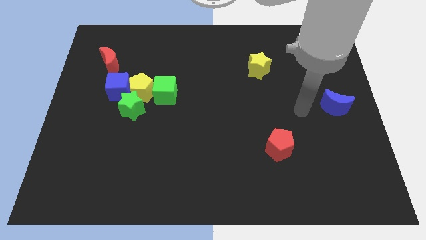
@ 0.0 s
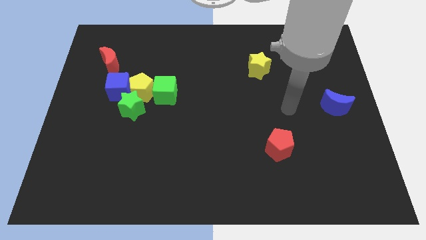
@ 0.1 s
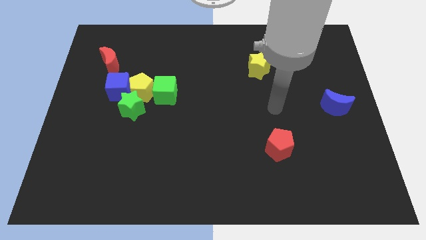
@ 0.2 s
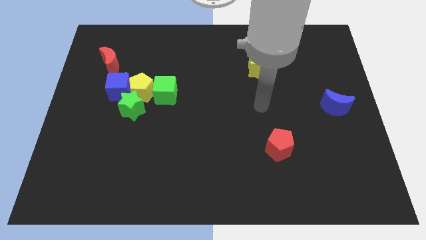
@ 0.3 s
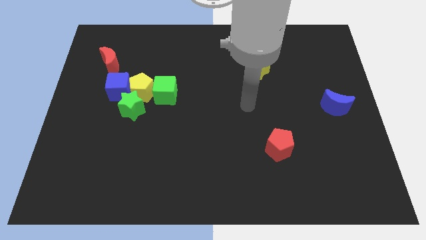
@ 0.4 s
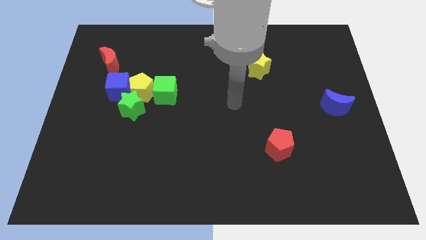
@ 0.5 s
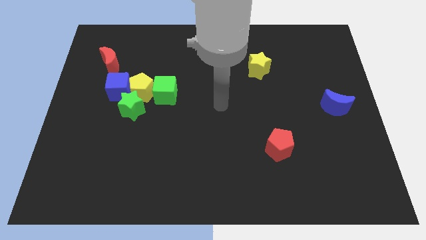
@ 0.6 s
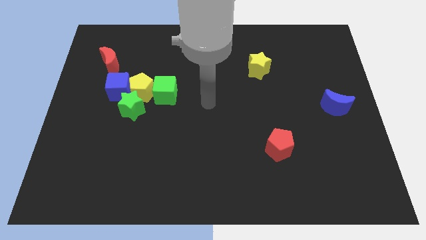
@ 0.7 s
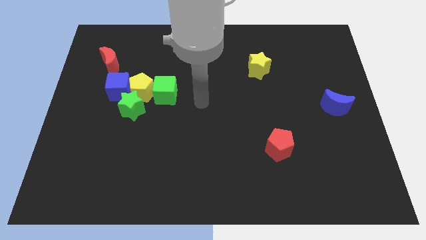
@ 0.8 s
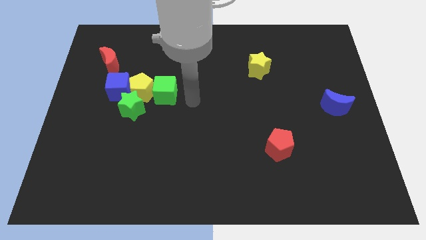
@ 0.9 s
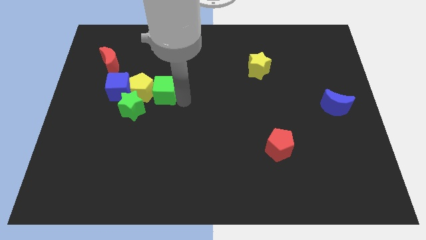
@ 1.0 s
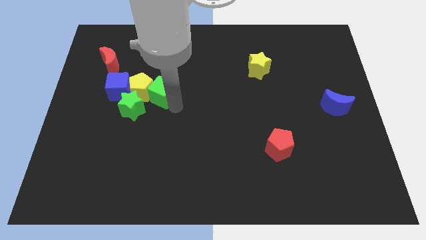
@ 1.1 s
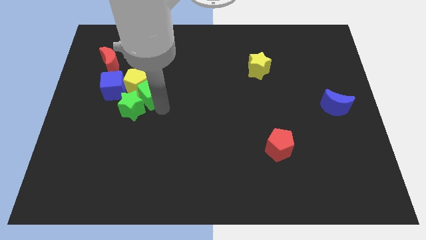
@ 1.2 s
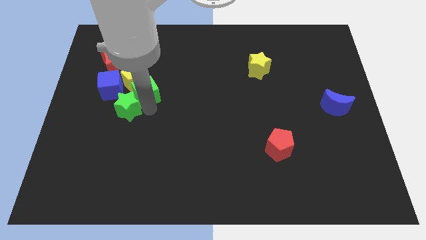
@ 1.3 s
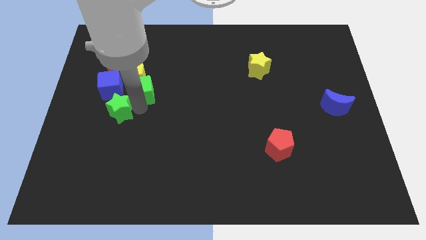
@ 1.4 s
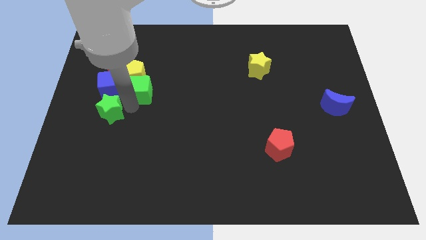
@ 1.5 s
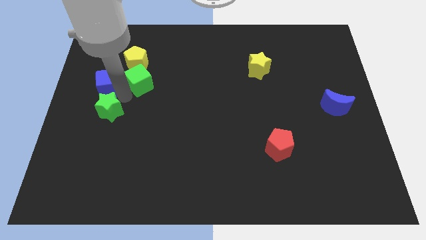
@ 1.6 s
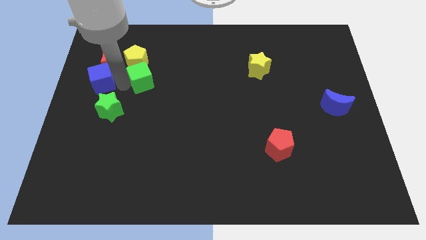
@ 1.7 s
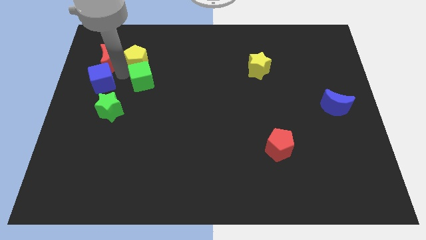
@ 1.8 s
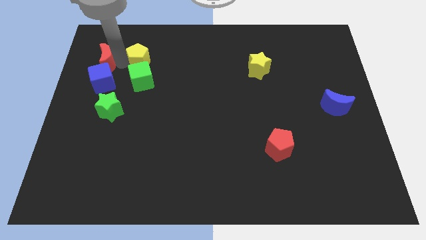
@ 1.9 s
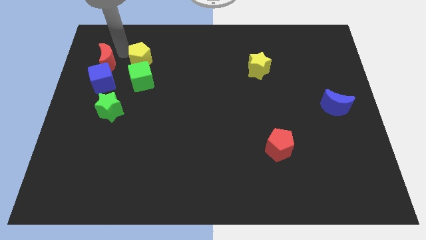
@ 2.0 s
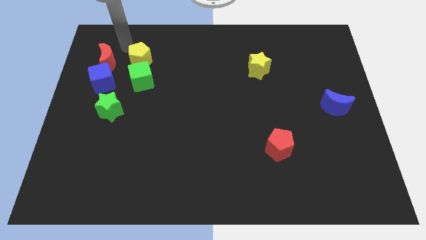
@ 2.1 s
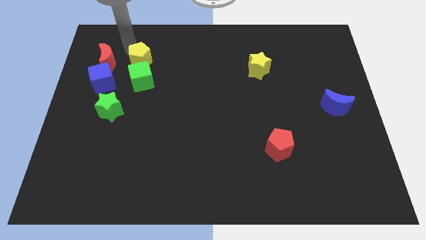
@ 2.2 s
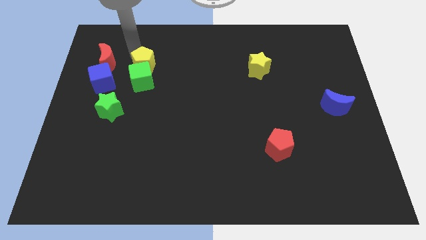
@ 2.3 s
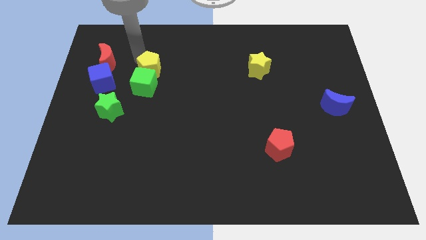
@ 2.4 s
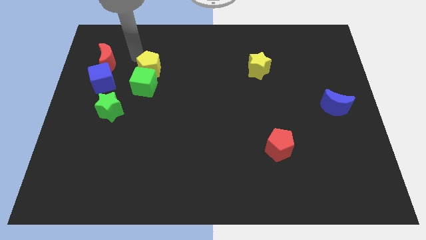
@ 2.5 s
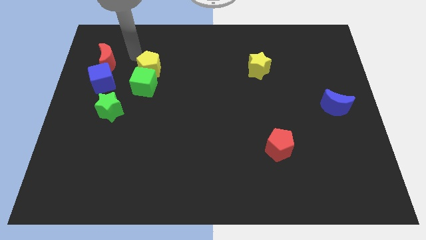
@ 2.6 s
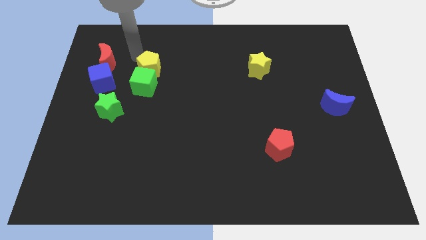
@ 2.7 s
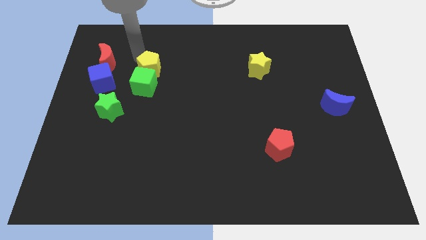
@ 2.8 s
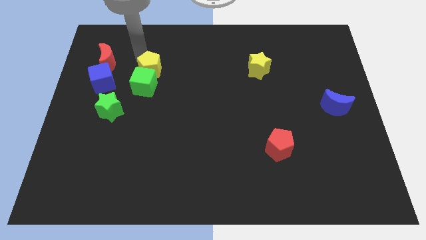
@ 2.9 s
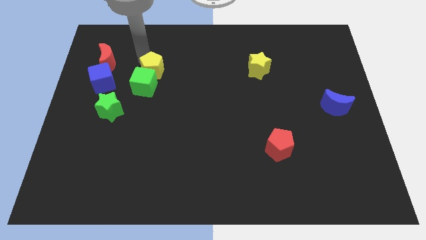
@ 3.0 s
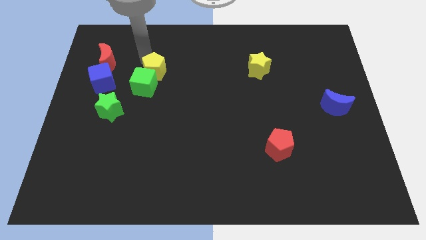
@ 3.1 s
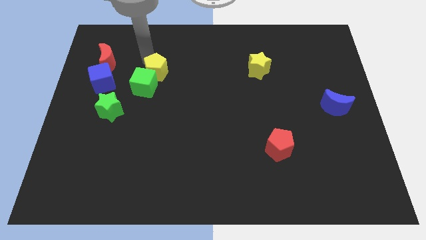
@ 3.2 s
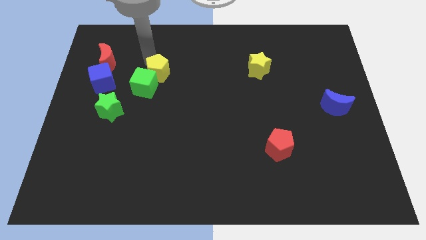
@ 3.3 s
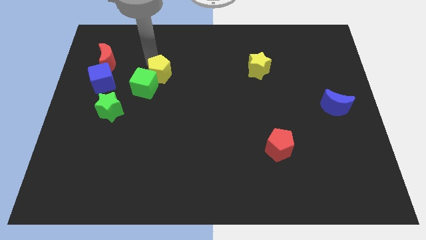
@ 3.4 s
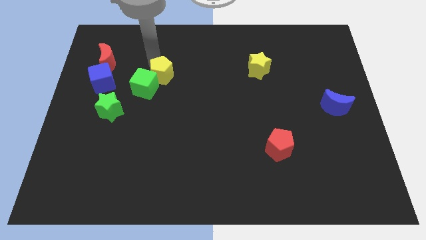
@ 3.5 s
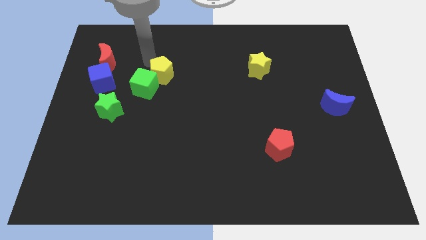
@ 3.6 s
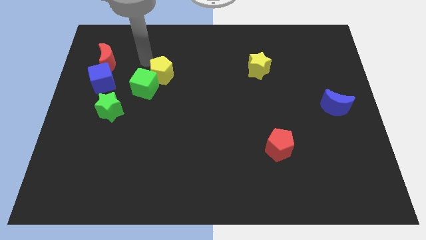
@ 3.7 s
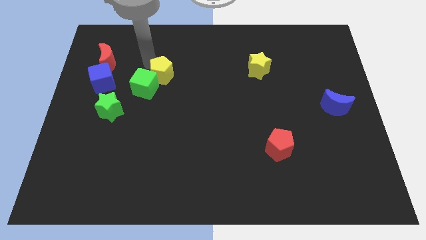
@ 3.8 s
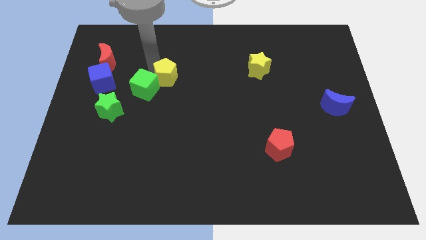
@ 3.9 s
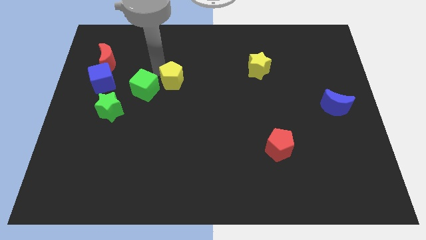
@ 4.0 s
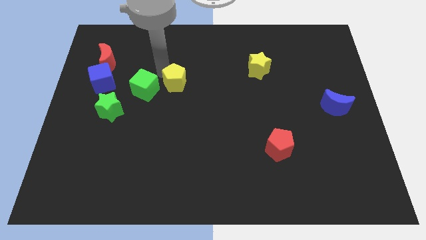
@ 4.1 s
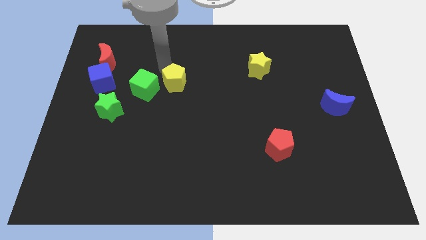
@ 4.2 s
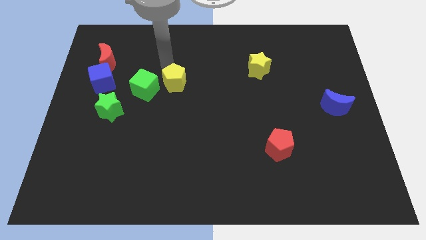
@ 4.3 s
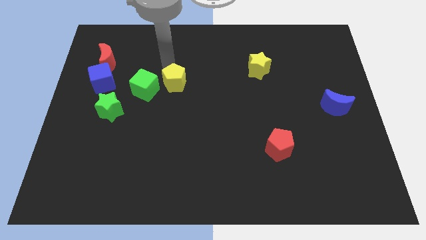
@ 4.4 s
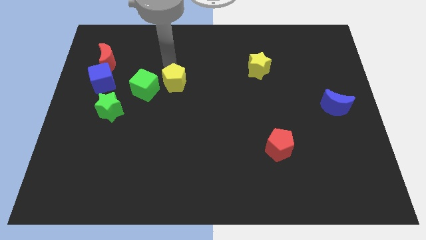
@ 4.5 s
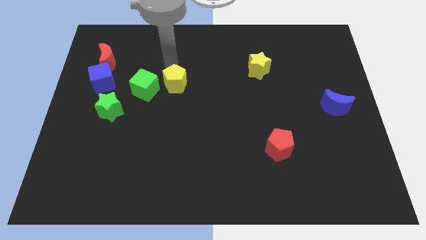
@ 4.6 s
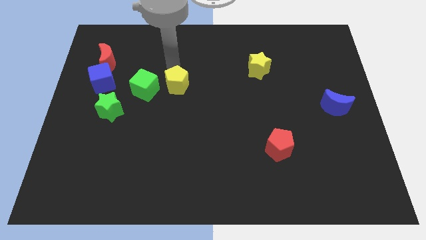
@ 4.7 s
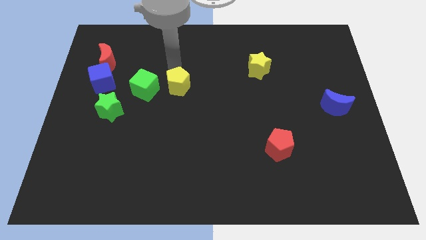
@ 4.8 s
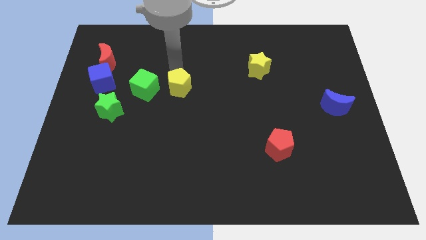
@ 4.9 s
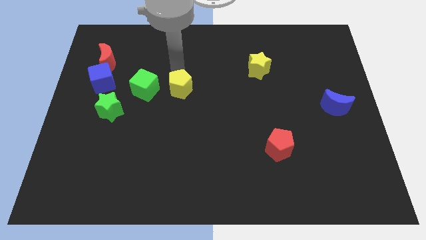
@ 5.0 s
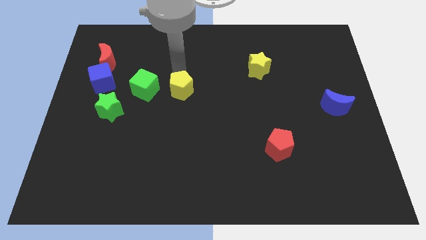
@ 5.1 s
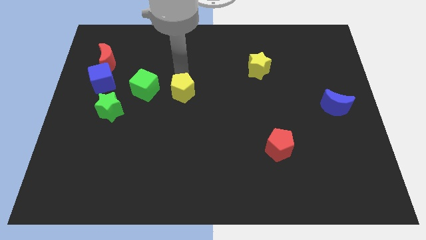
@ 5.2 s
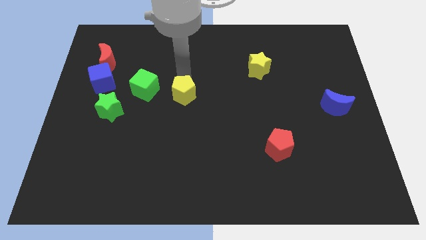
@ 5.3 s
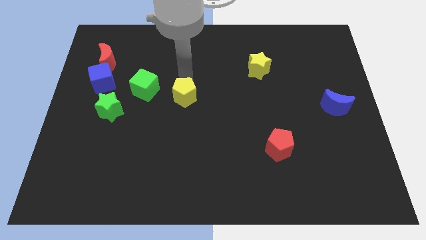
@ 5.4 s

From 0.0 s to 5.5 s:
push the yellow pentagon down and to the right slightly

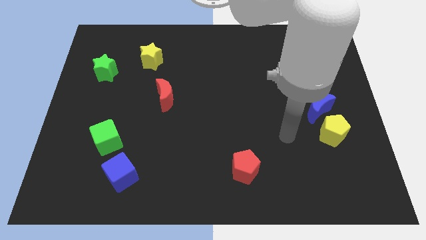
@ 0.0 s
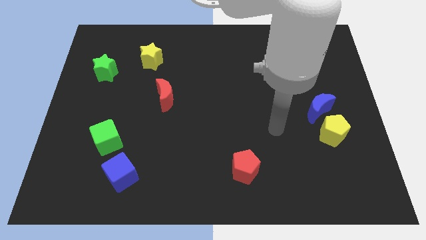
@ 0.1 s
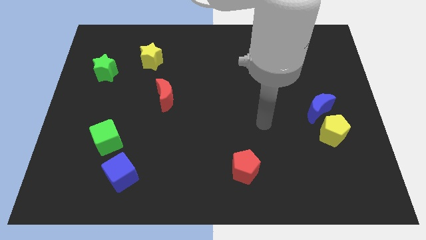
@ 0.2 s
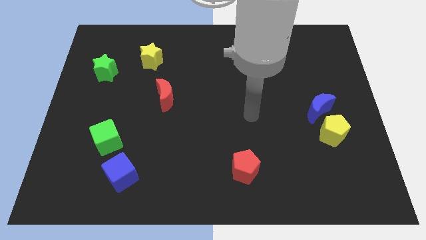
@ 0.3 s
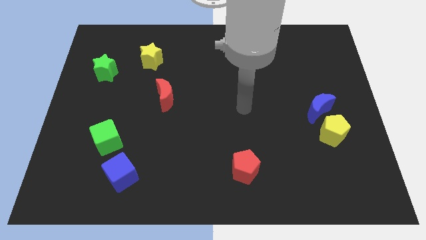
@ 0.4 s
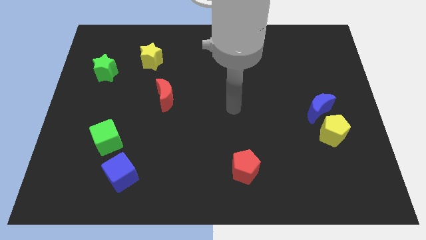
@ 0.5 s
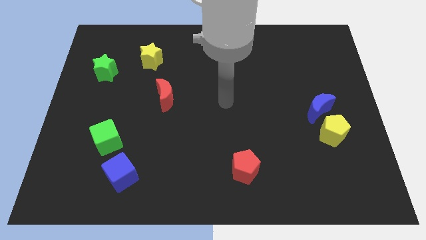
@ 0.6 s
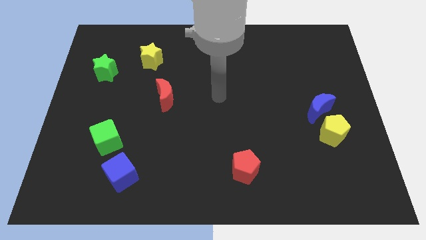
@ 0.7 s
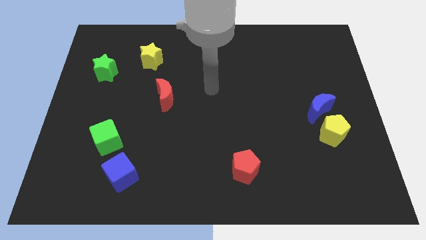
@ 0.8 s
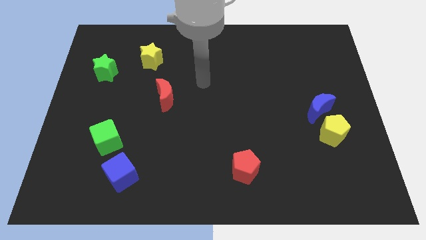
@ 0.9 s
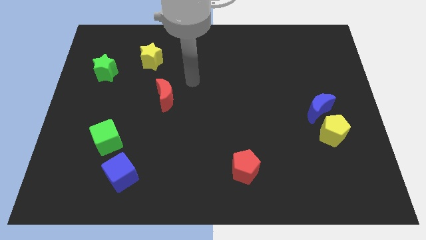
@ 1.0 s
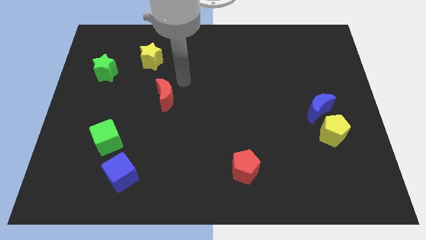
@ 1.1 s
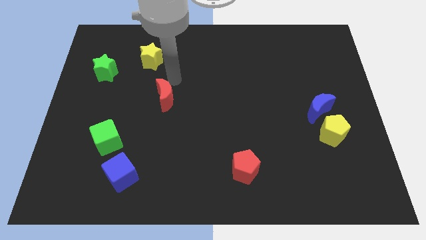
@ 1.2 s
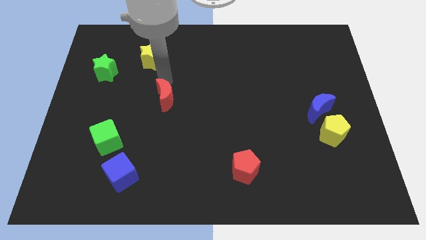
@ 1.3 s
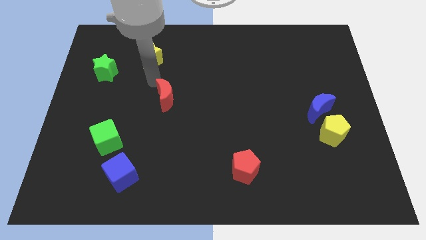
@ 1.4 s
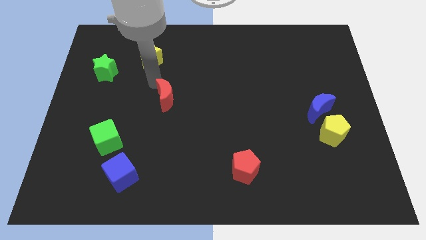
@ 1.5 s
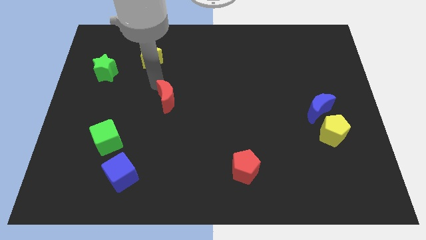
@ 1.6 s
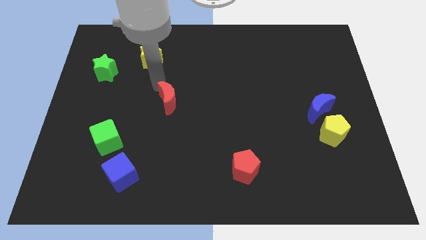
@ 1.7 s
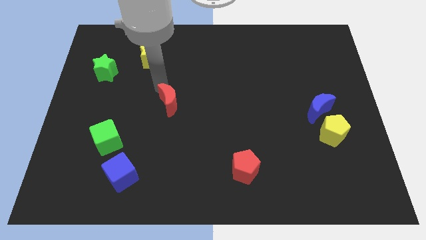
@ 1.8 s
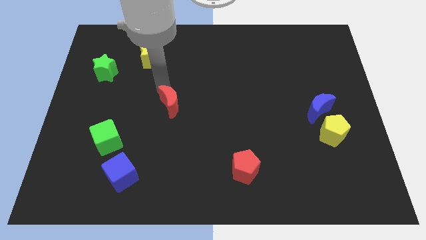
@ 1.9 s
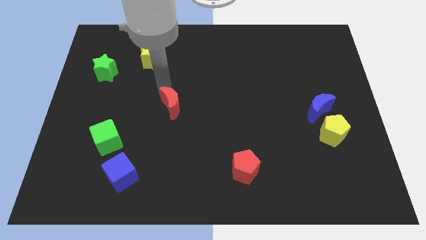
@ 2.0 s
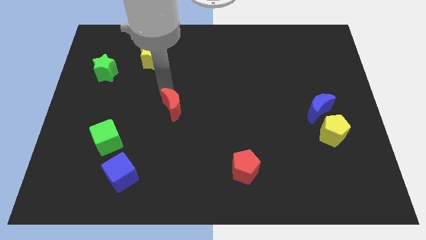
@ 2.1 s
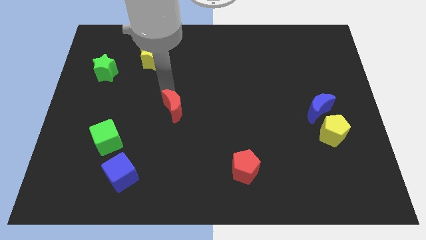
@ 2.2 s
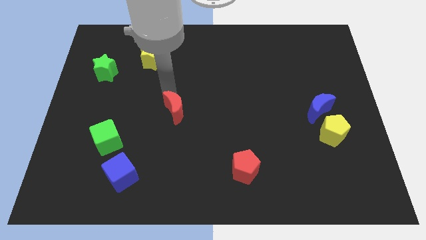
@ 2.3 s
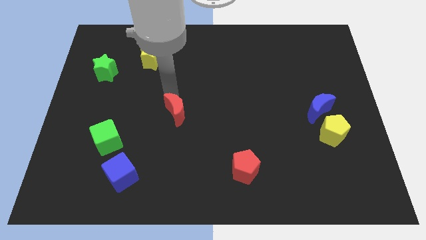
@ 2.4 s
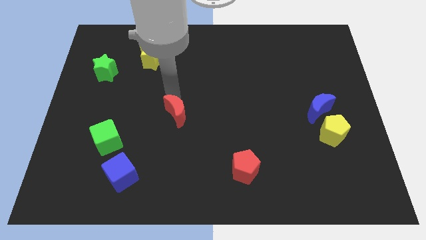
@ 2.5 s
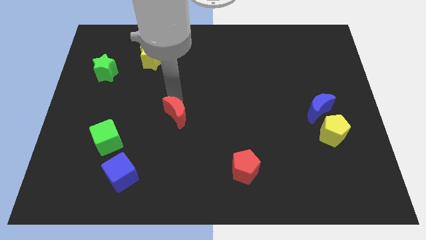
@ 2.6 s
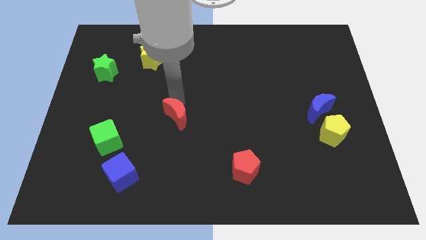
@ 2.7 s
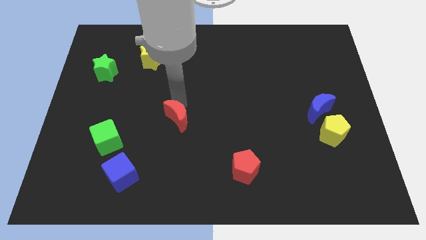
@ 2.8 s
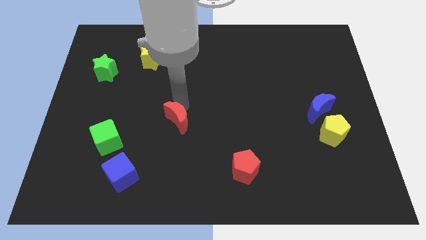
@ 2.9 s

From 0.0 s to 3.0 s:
slide the red moon diagonally downwards and right slightly
